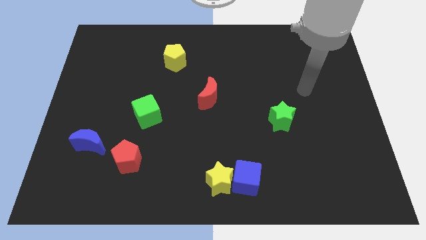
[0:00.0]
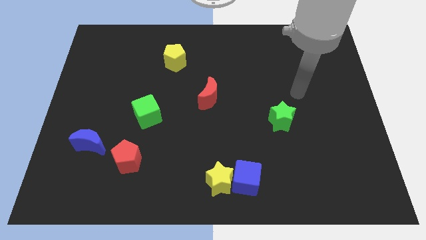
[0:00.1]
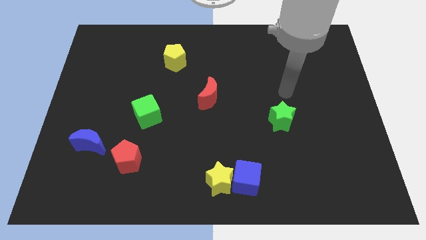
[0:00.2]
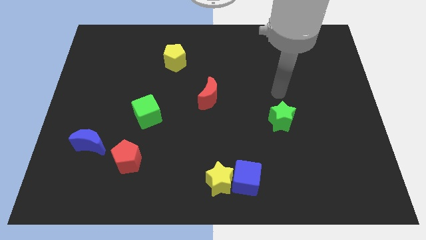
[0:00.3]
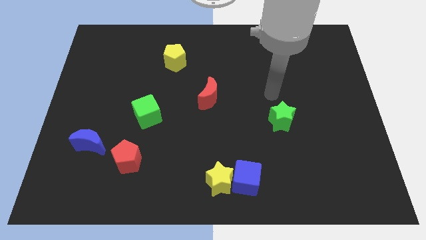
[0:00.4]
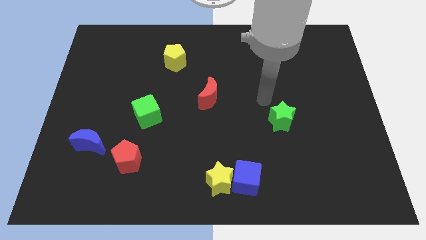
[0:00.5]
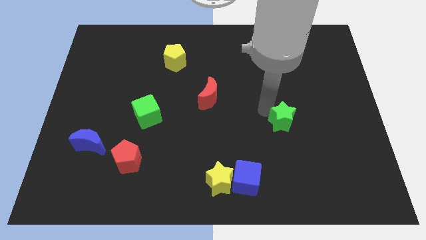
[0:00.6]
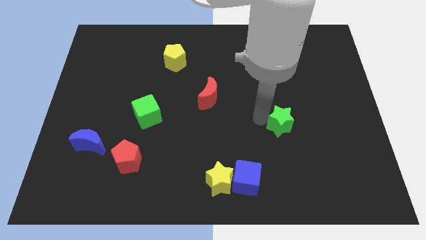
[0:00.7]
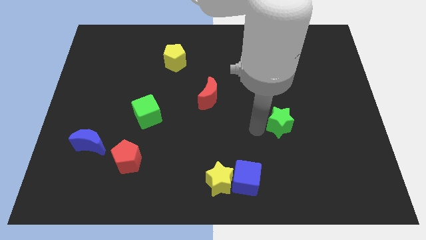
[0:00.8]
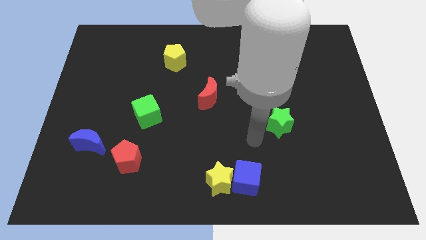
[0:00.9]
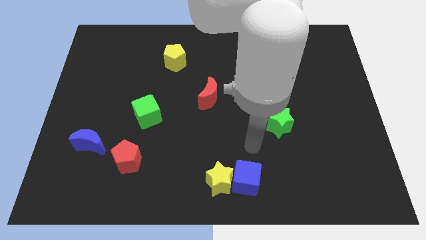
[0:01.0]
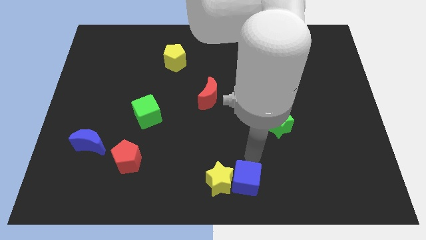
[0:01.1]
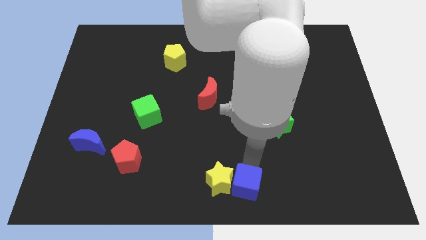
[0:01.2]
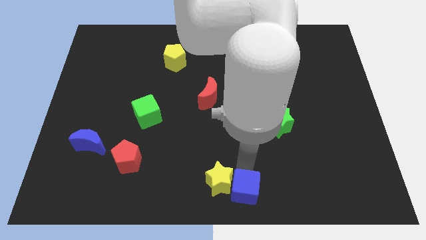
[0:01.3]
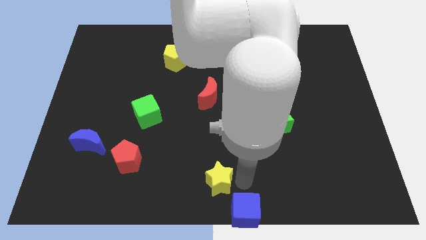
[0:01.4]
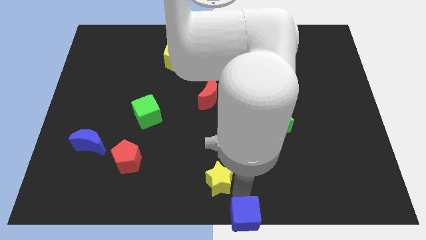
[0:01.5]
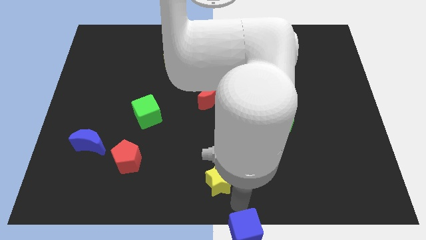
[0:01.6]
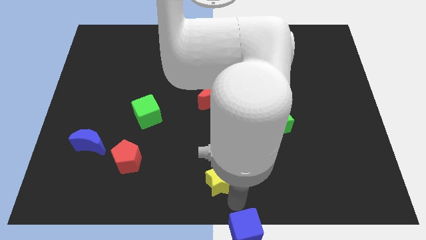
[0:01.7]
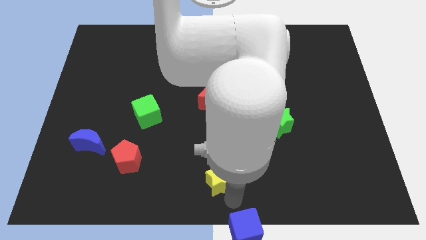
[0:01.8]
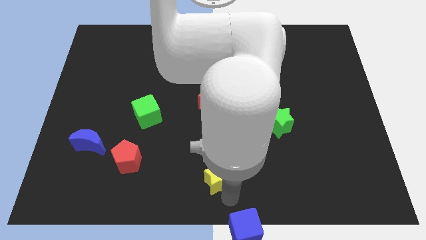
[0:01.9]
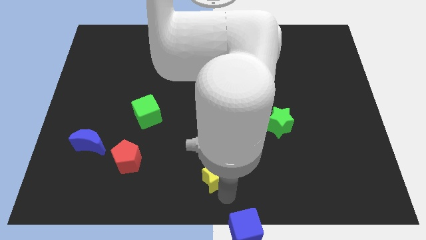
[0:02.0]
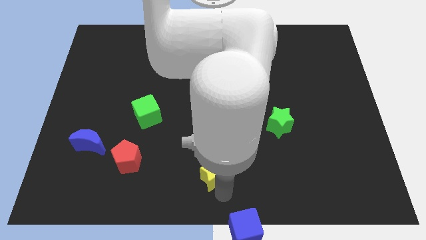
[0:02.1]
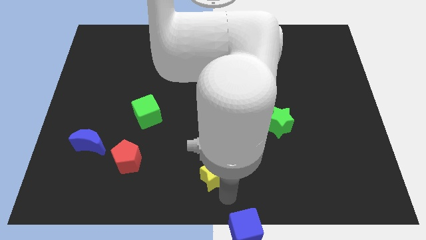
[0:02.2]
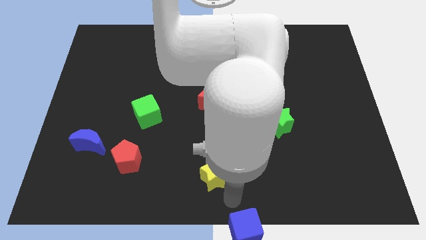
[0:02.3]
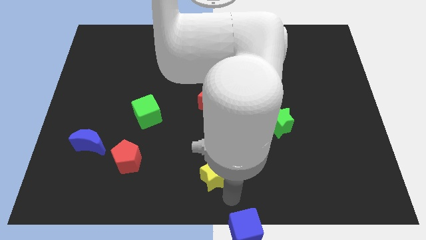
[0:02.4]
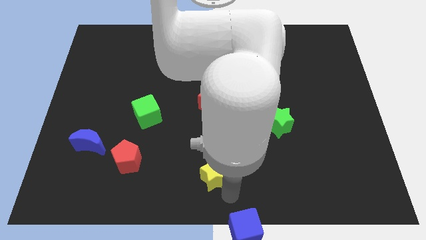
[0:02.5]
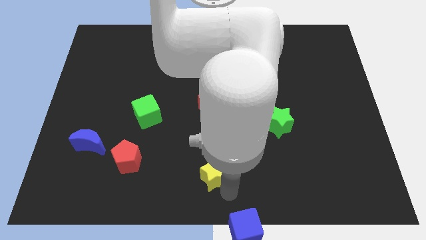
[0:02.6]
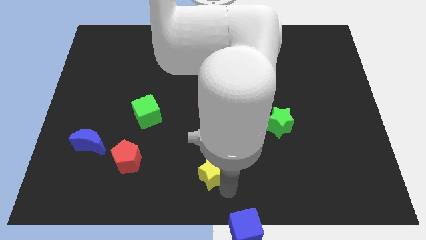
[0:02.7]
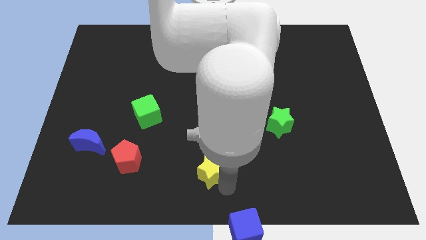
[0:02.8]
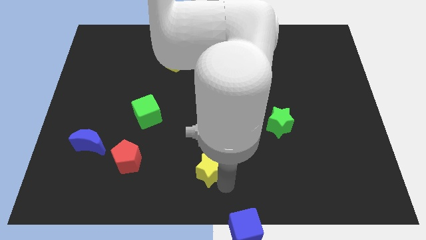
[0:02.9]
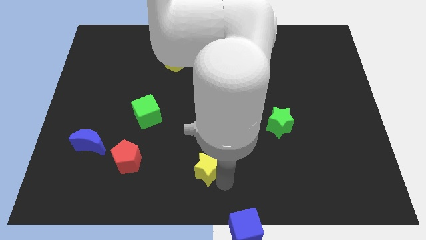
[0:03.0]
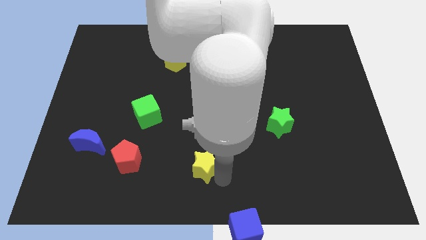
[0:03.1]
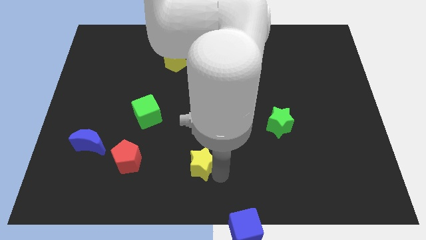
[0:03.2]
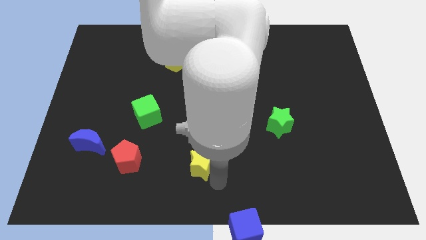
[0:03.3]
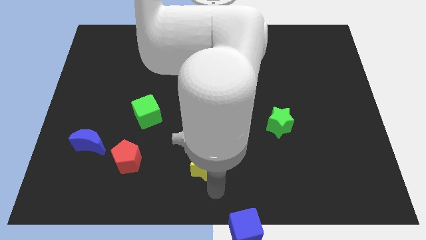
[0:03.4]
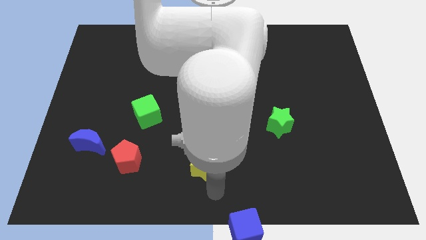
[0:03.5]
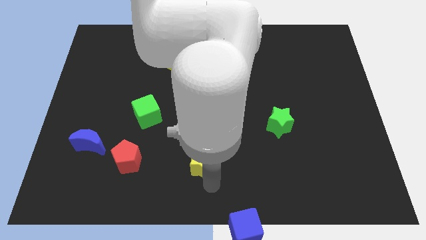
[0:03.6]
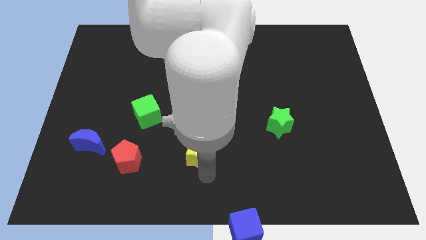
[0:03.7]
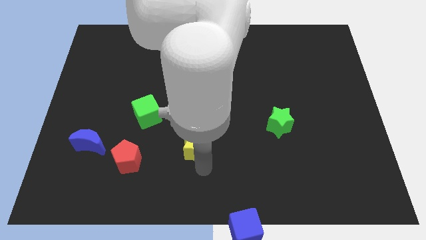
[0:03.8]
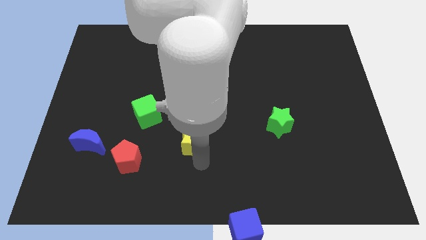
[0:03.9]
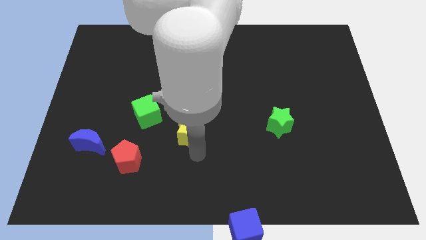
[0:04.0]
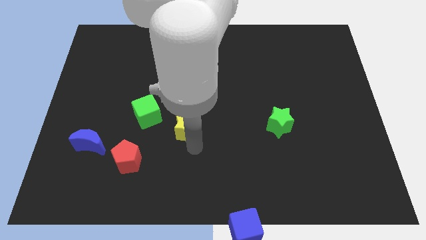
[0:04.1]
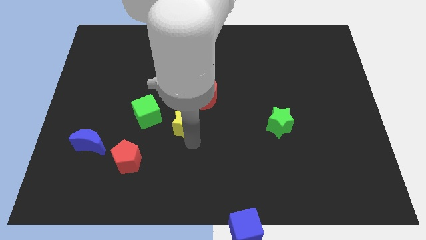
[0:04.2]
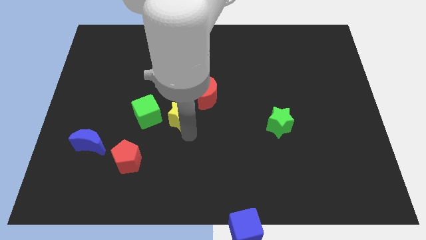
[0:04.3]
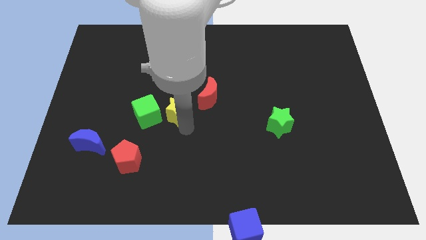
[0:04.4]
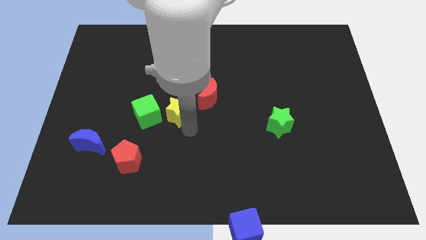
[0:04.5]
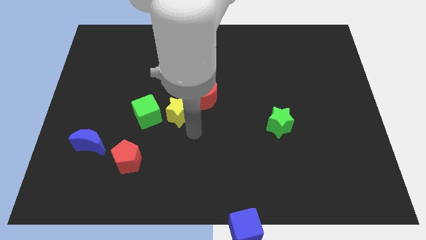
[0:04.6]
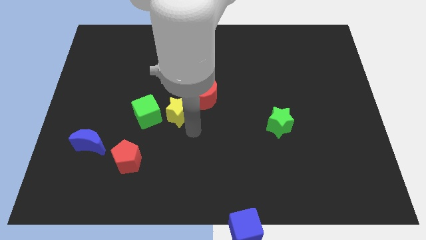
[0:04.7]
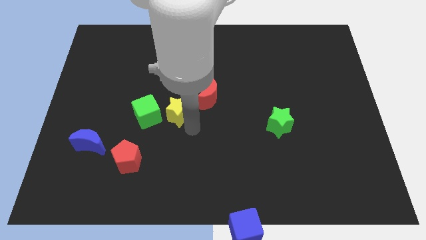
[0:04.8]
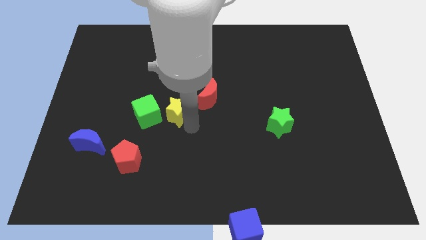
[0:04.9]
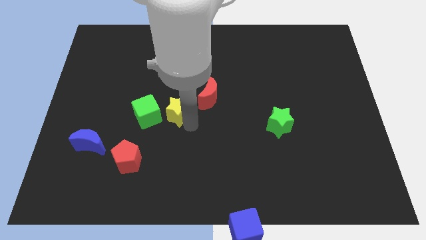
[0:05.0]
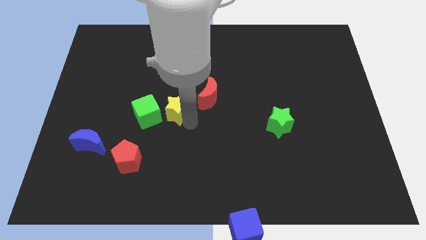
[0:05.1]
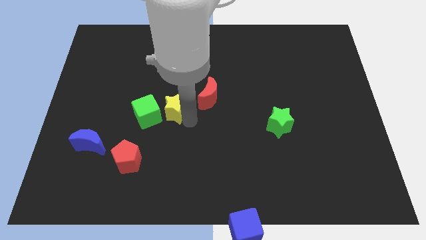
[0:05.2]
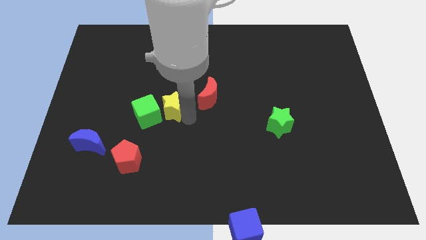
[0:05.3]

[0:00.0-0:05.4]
push the yellow star to the bottom of the yellow pentagon

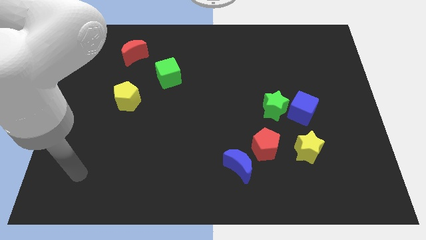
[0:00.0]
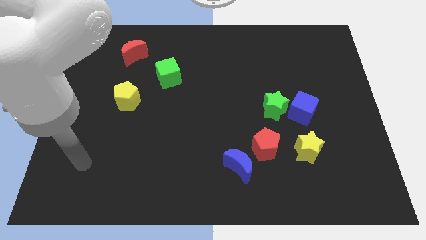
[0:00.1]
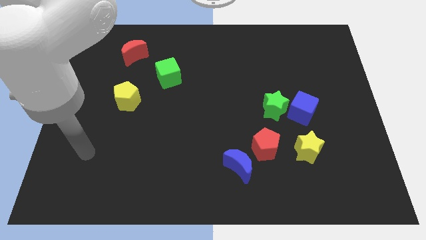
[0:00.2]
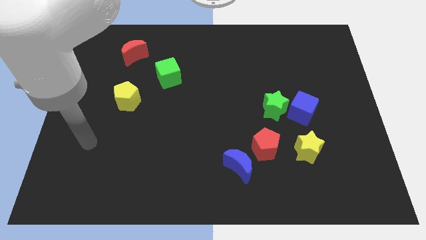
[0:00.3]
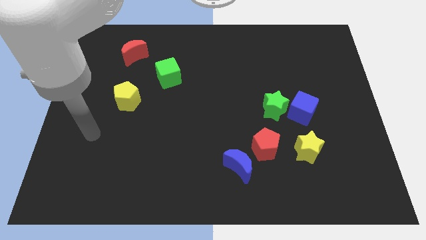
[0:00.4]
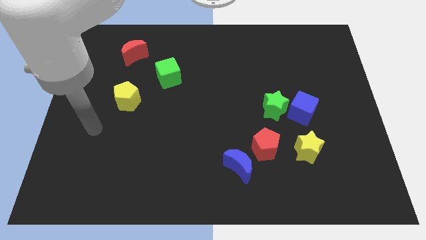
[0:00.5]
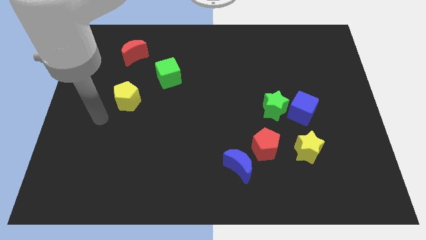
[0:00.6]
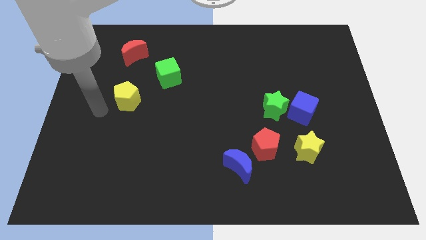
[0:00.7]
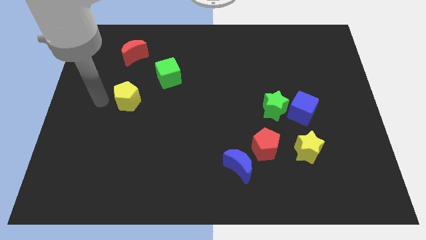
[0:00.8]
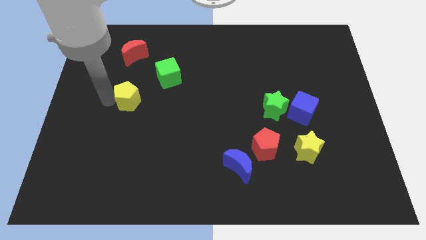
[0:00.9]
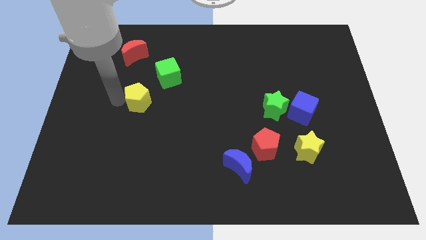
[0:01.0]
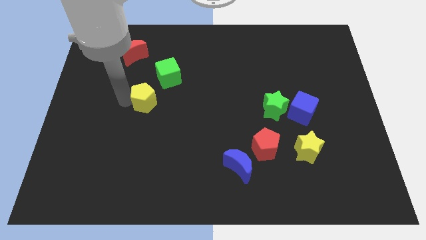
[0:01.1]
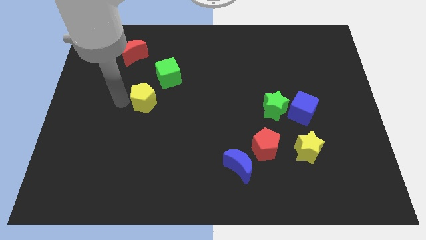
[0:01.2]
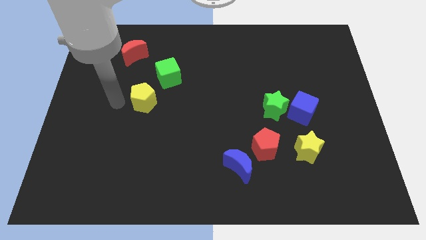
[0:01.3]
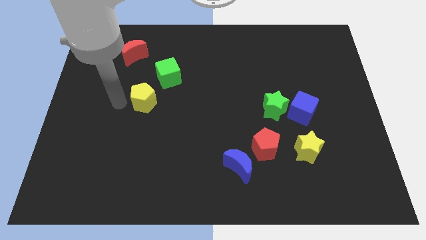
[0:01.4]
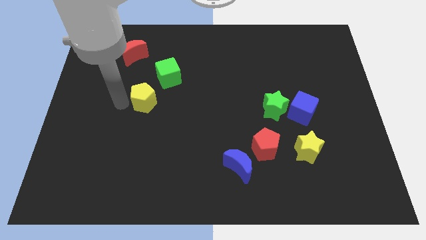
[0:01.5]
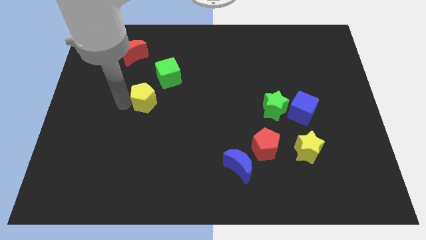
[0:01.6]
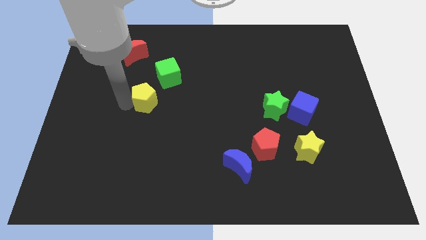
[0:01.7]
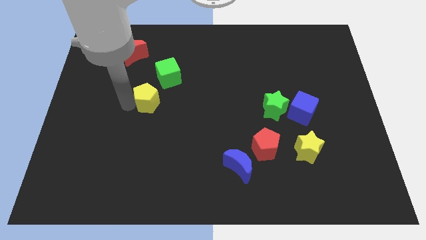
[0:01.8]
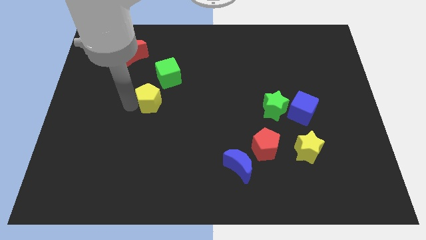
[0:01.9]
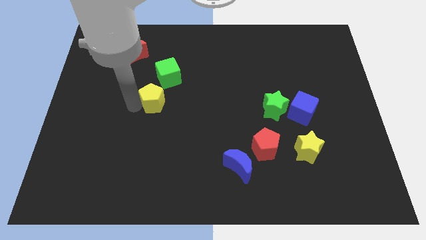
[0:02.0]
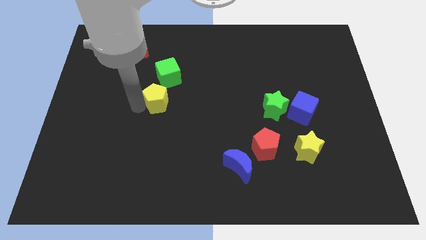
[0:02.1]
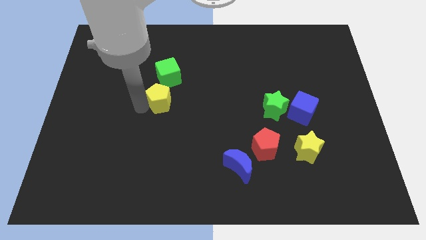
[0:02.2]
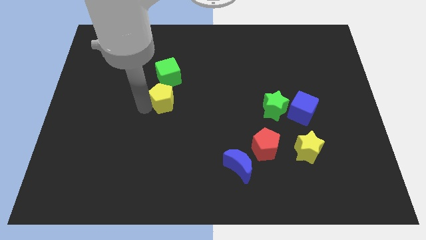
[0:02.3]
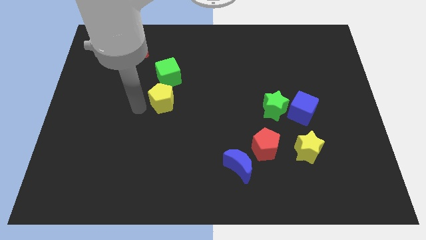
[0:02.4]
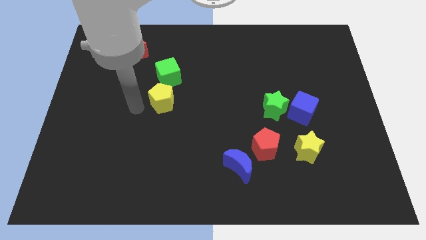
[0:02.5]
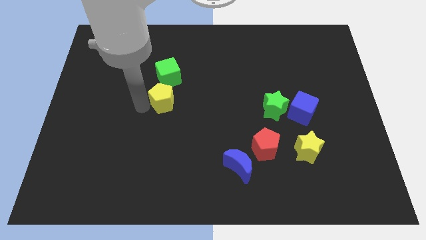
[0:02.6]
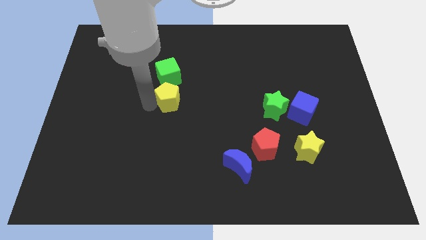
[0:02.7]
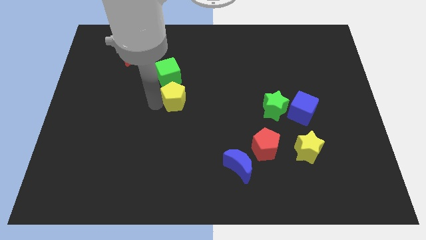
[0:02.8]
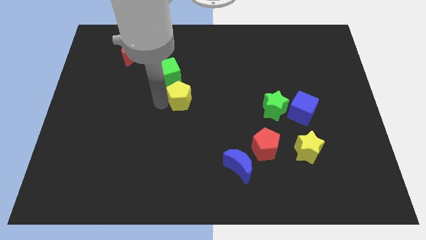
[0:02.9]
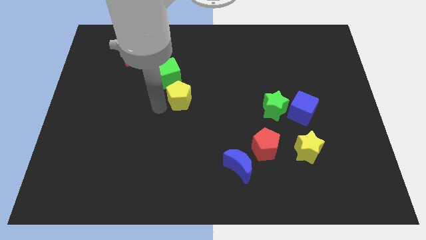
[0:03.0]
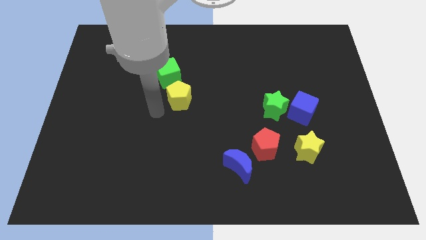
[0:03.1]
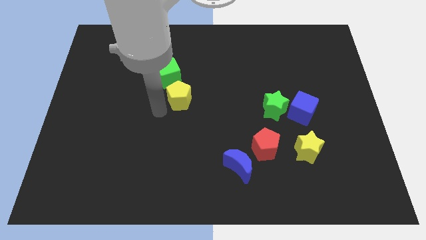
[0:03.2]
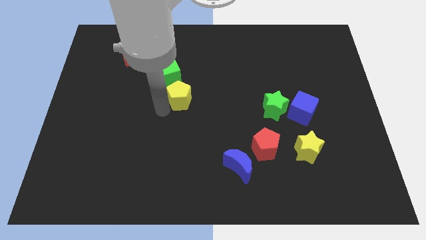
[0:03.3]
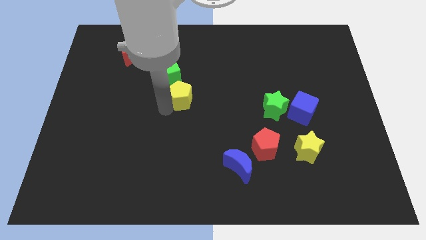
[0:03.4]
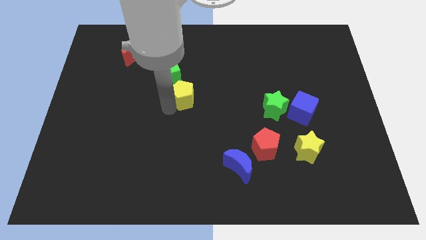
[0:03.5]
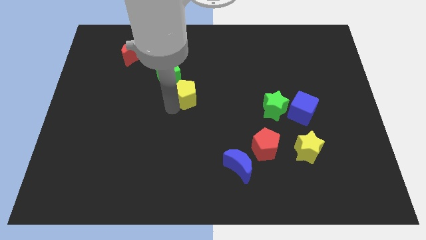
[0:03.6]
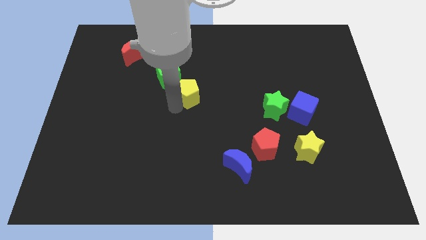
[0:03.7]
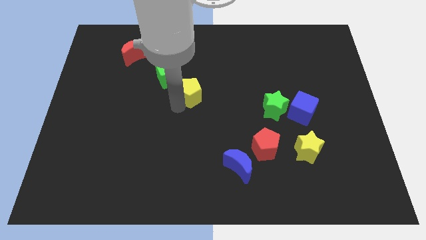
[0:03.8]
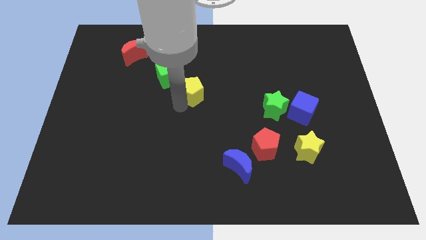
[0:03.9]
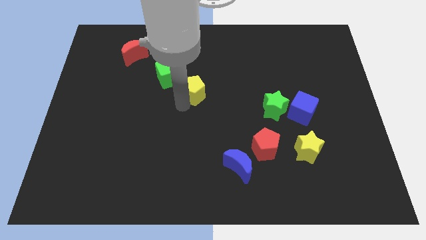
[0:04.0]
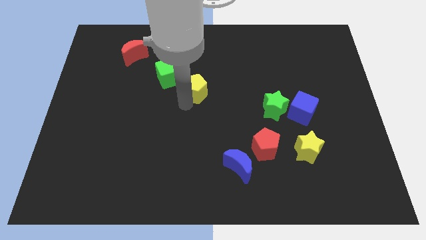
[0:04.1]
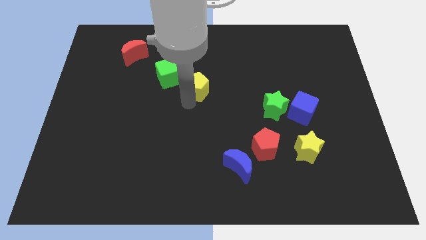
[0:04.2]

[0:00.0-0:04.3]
put the yellow pentagon to the right of the green cube
